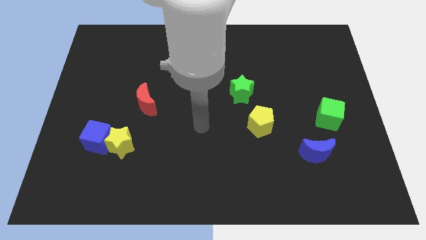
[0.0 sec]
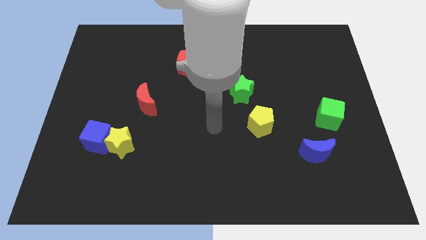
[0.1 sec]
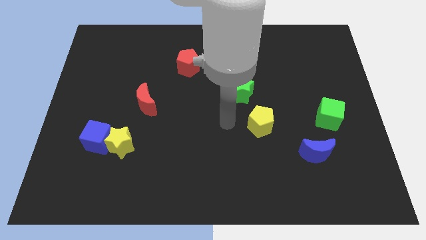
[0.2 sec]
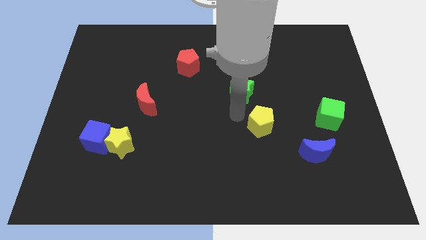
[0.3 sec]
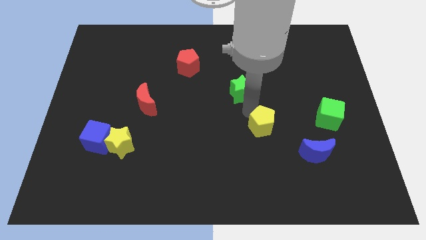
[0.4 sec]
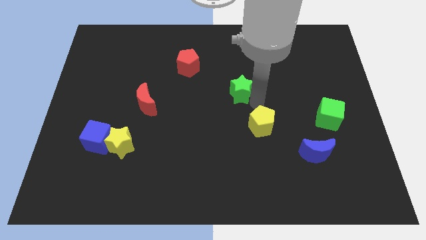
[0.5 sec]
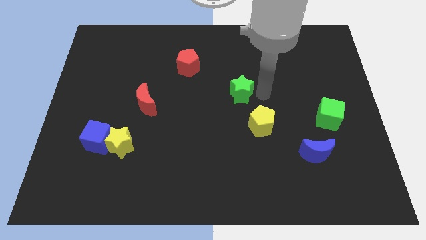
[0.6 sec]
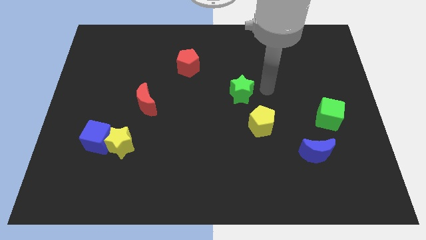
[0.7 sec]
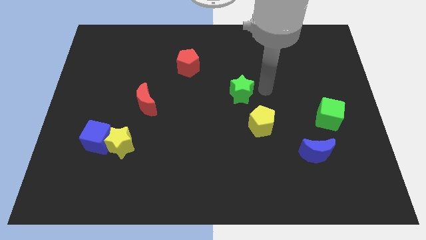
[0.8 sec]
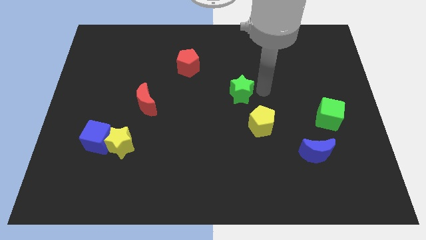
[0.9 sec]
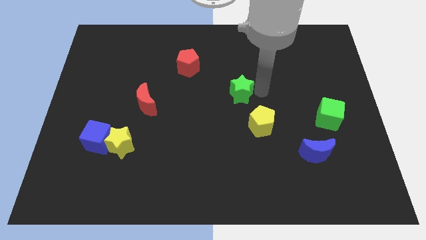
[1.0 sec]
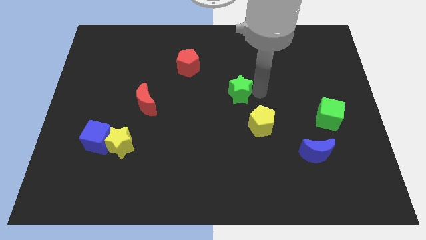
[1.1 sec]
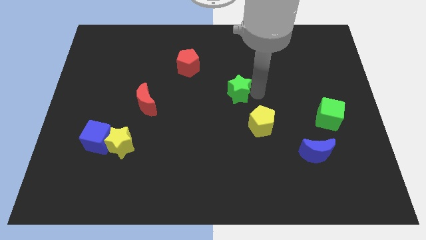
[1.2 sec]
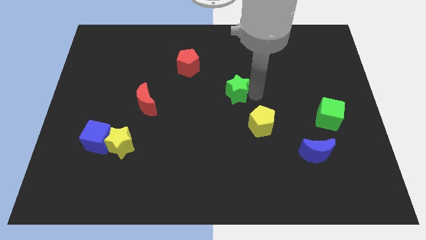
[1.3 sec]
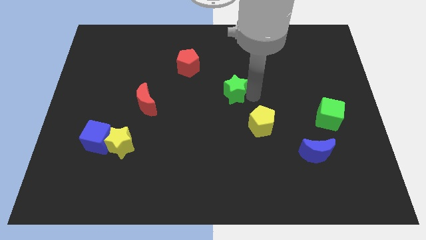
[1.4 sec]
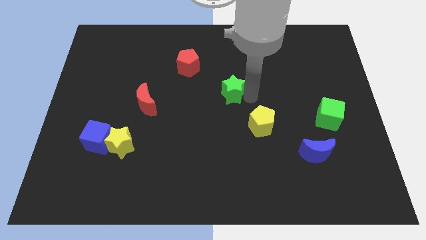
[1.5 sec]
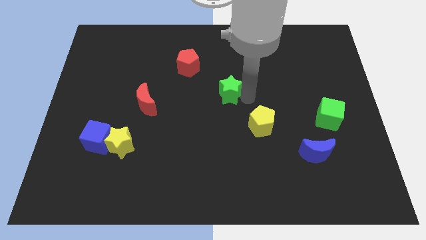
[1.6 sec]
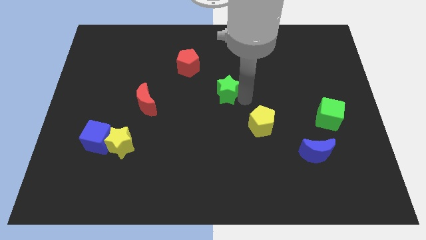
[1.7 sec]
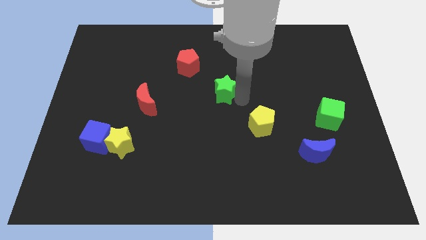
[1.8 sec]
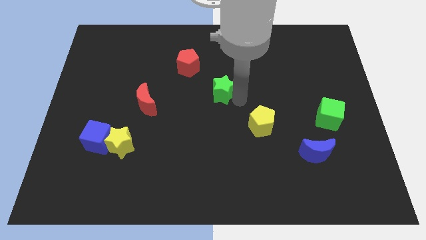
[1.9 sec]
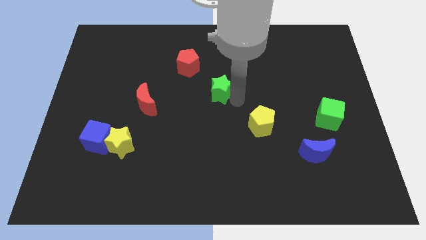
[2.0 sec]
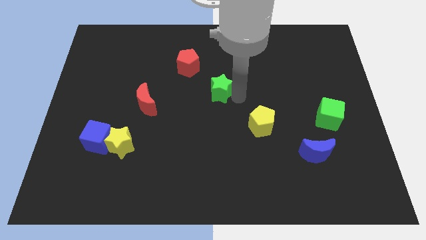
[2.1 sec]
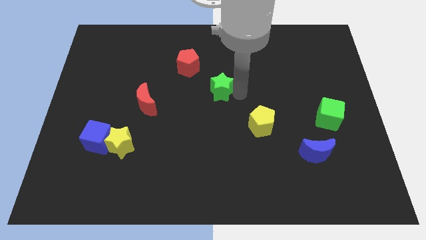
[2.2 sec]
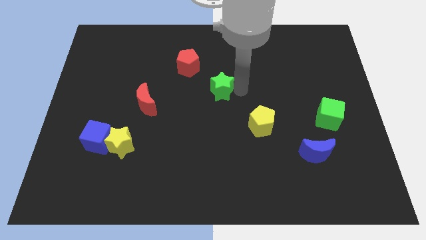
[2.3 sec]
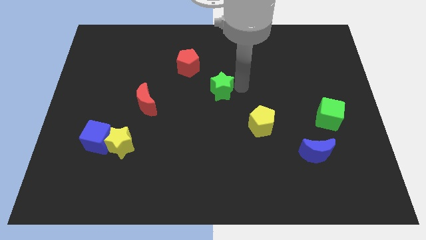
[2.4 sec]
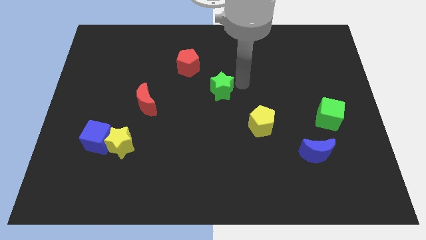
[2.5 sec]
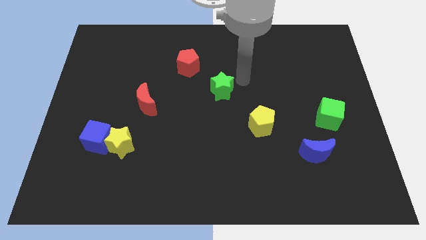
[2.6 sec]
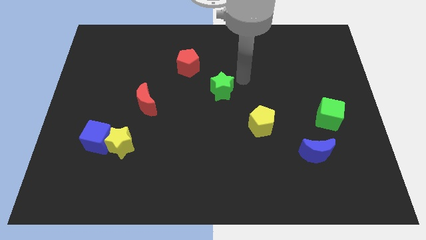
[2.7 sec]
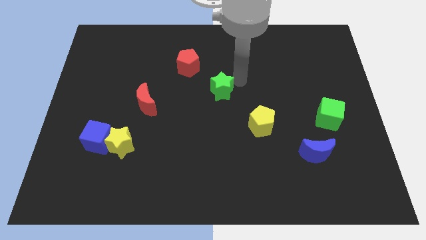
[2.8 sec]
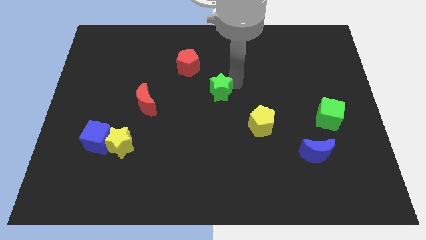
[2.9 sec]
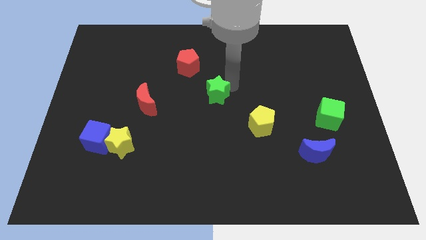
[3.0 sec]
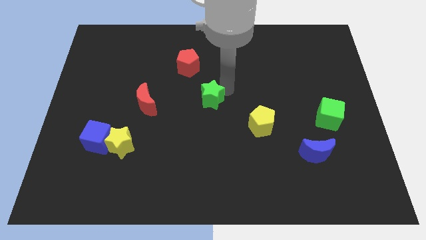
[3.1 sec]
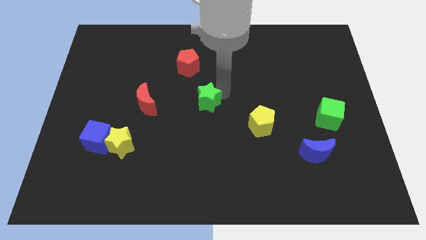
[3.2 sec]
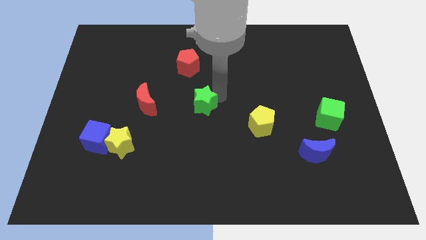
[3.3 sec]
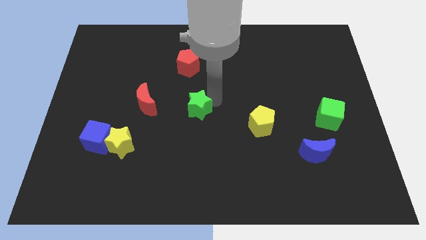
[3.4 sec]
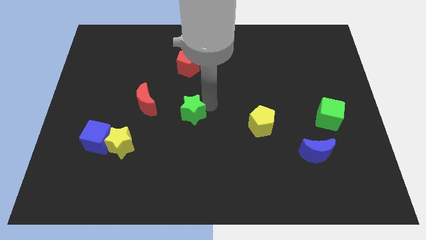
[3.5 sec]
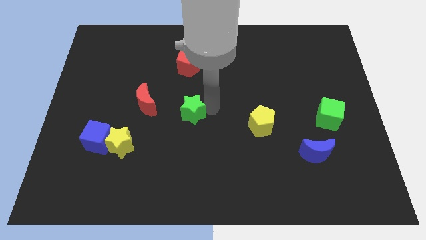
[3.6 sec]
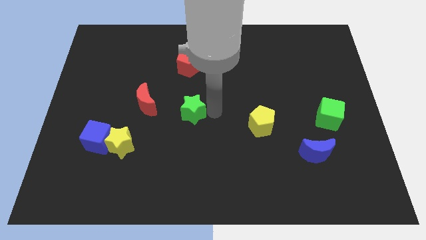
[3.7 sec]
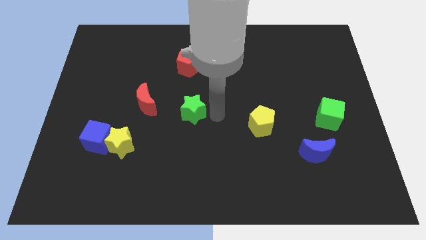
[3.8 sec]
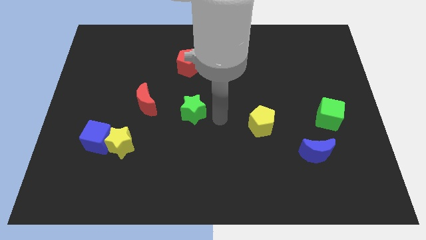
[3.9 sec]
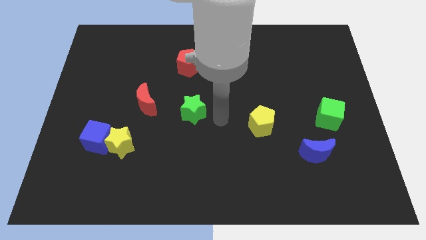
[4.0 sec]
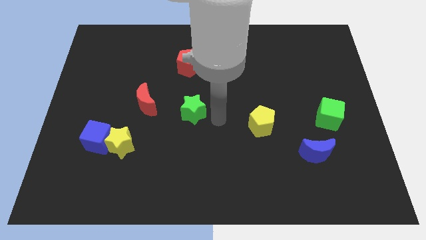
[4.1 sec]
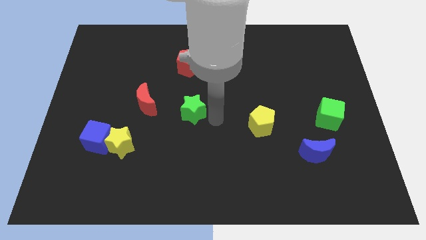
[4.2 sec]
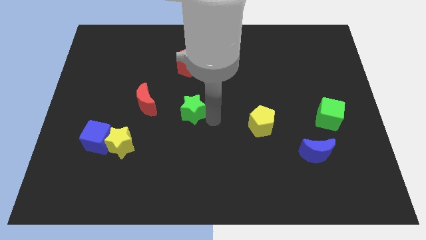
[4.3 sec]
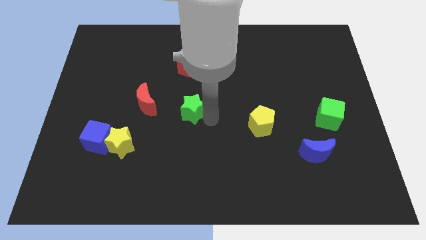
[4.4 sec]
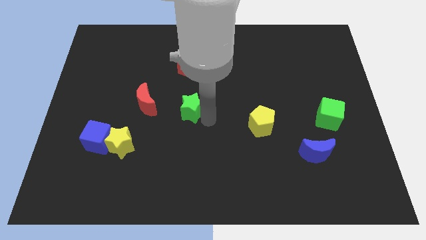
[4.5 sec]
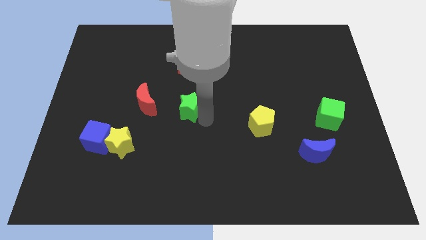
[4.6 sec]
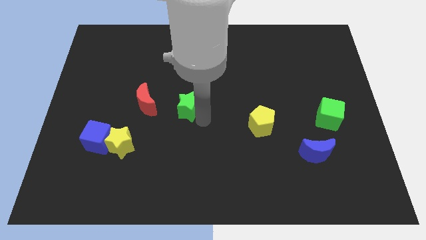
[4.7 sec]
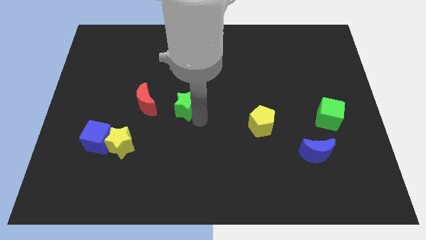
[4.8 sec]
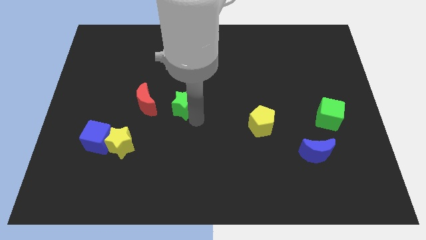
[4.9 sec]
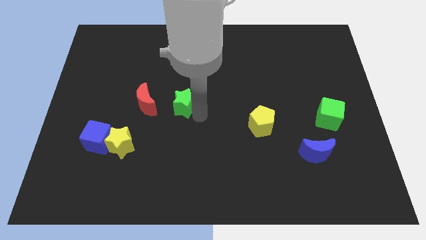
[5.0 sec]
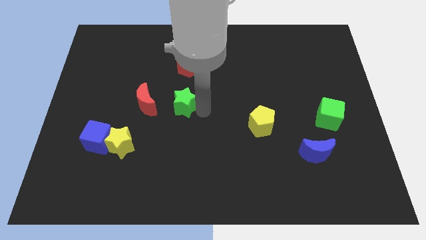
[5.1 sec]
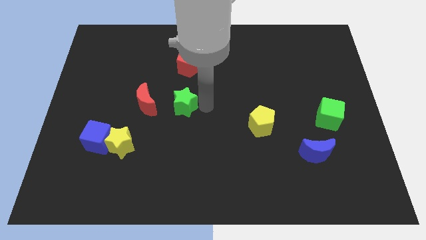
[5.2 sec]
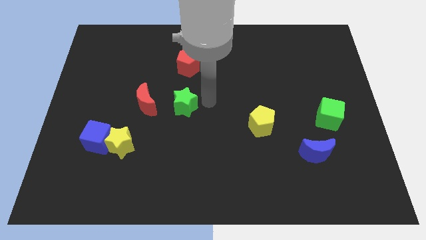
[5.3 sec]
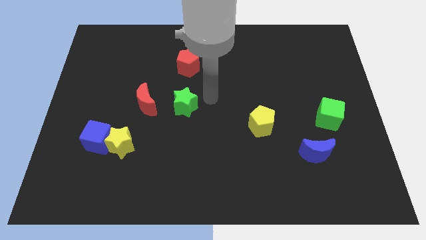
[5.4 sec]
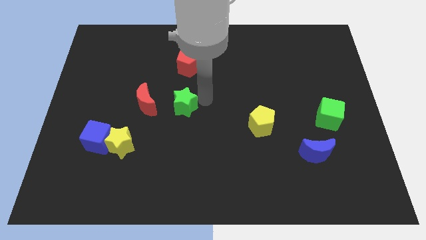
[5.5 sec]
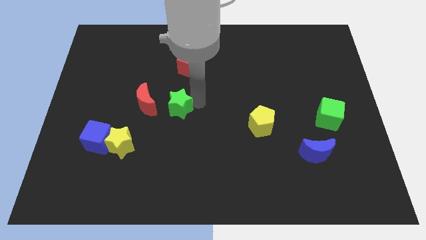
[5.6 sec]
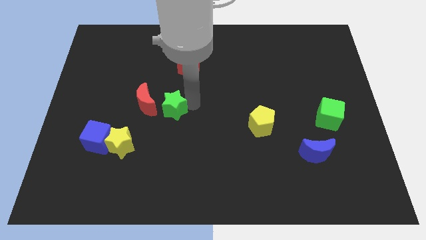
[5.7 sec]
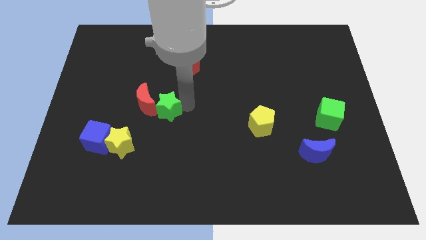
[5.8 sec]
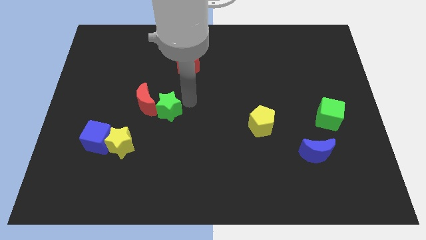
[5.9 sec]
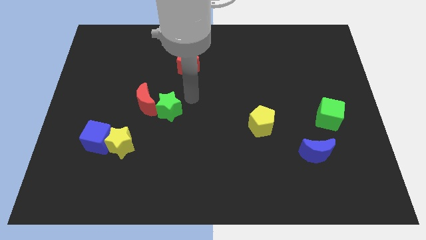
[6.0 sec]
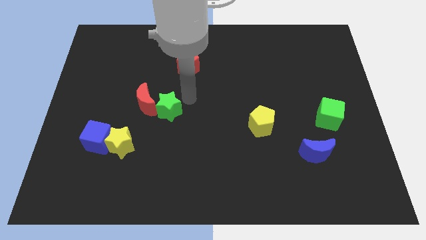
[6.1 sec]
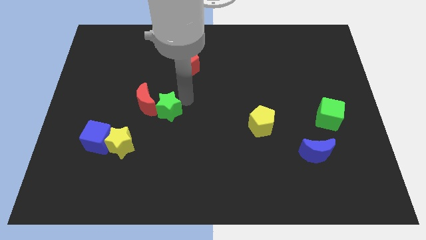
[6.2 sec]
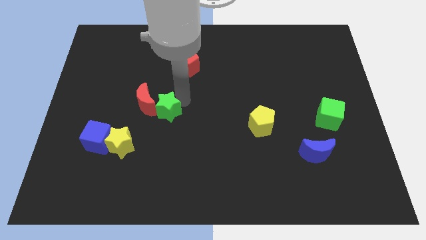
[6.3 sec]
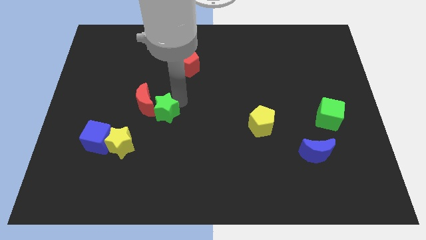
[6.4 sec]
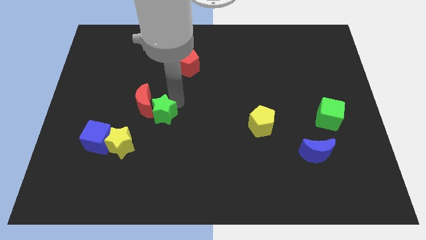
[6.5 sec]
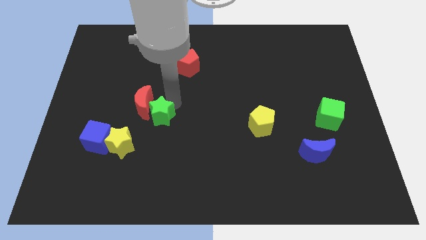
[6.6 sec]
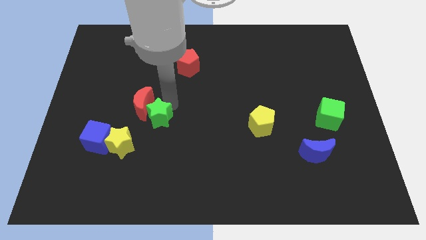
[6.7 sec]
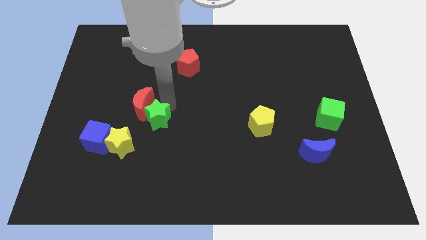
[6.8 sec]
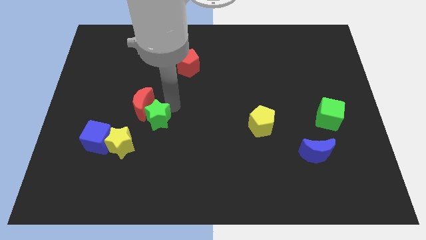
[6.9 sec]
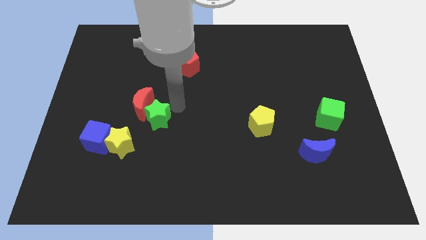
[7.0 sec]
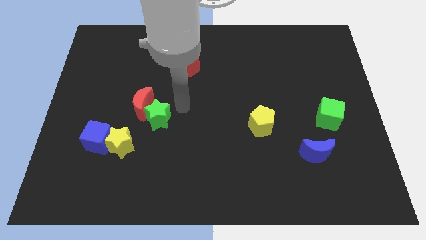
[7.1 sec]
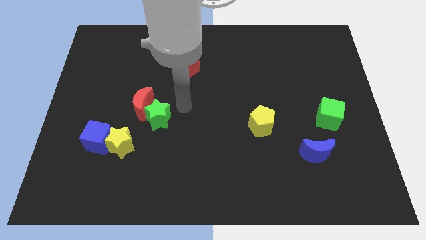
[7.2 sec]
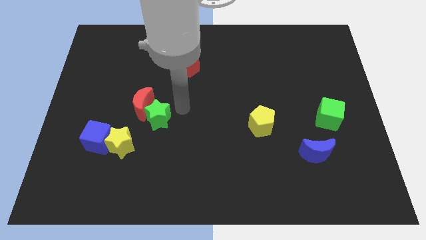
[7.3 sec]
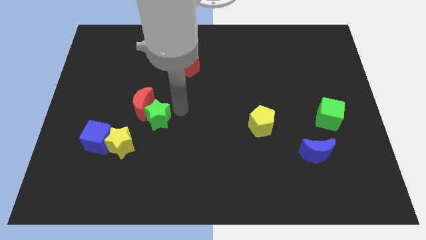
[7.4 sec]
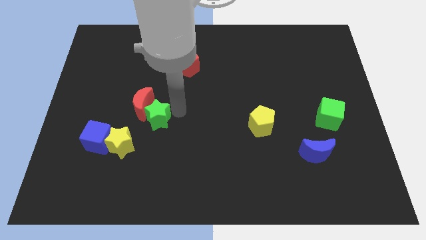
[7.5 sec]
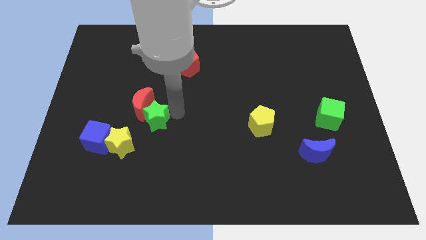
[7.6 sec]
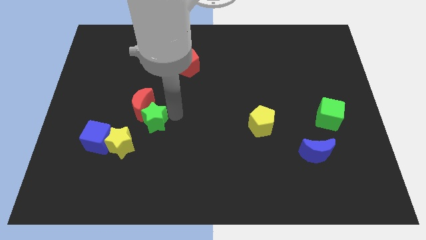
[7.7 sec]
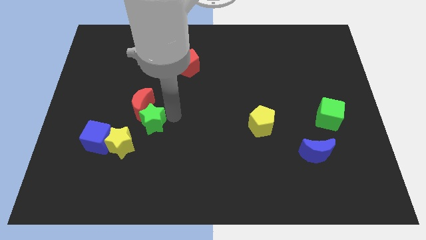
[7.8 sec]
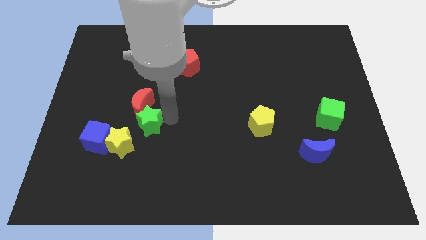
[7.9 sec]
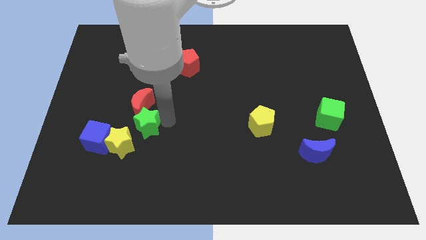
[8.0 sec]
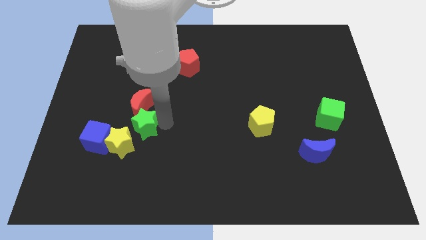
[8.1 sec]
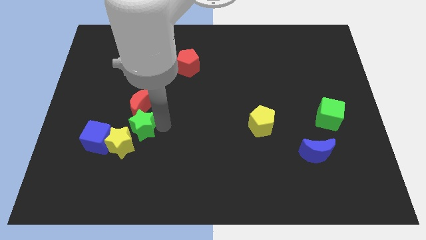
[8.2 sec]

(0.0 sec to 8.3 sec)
slide the green star towards the yellow star

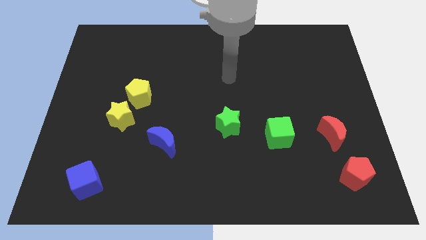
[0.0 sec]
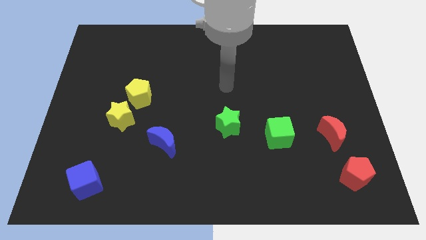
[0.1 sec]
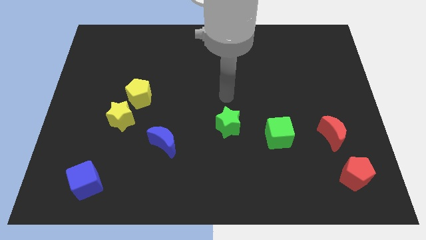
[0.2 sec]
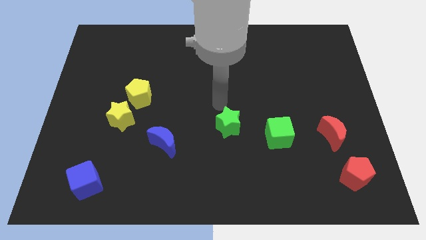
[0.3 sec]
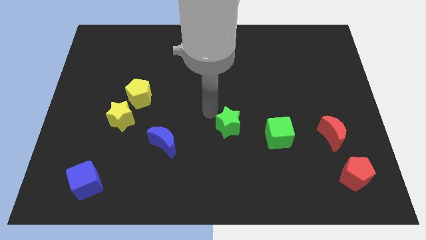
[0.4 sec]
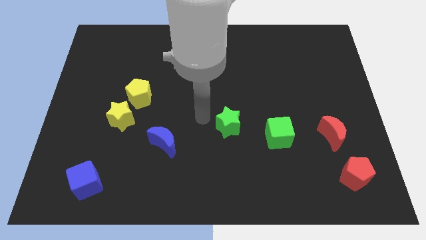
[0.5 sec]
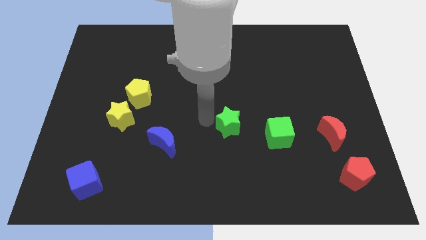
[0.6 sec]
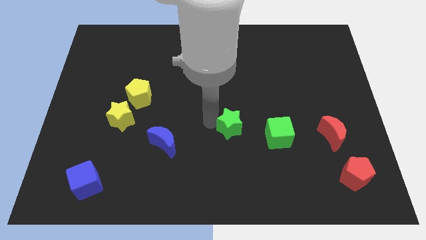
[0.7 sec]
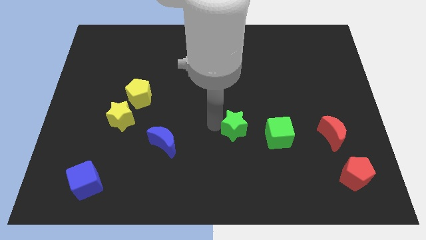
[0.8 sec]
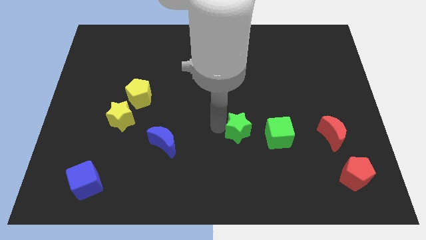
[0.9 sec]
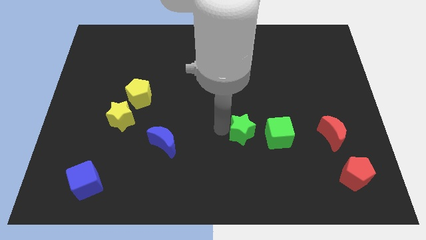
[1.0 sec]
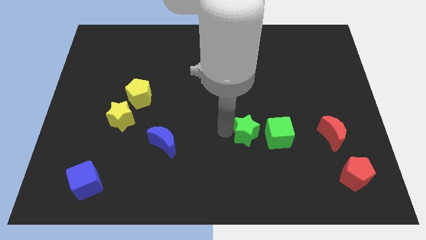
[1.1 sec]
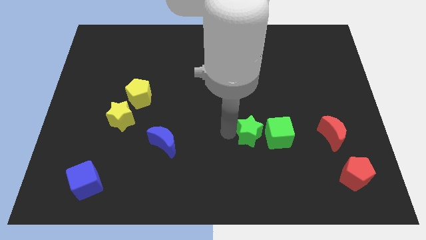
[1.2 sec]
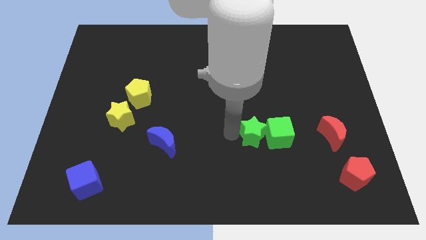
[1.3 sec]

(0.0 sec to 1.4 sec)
push the green star to the green cube
